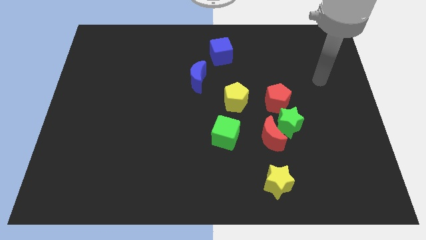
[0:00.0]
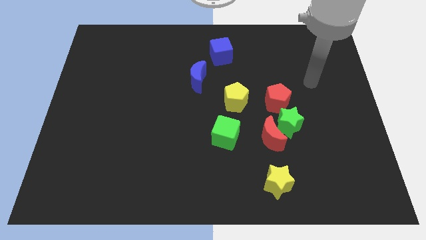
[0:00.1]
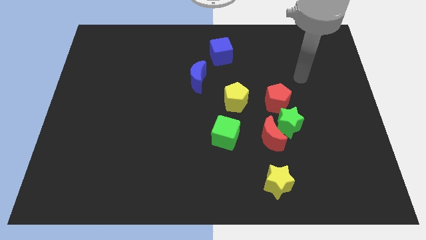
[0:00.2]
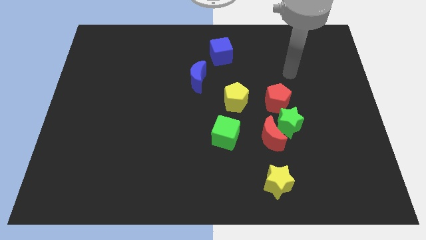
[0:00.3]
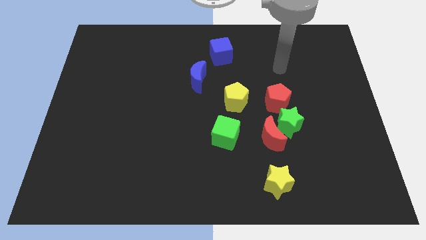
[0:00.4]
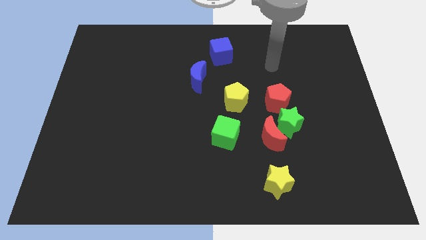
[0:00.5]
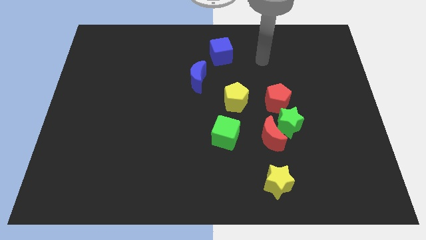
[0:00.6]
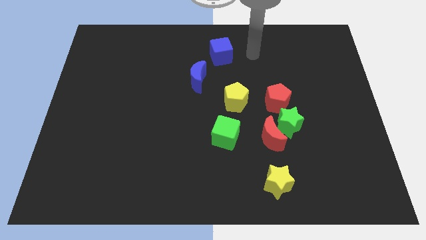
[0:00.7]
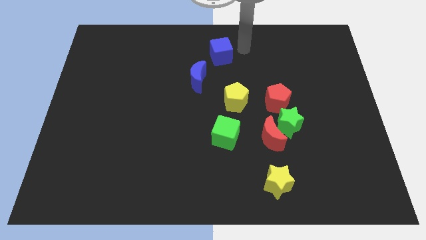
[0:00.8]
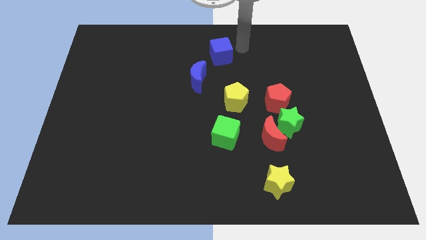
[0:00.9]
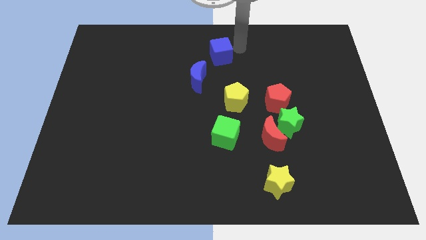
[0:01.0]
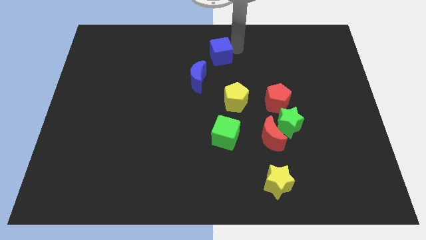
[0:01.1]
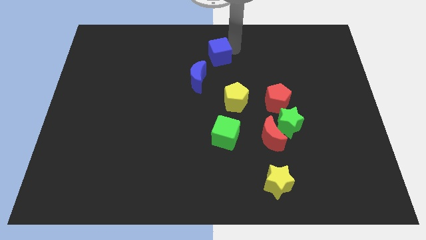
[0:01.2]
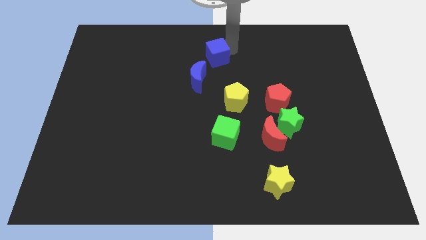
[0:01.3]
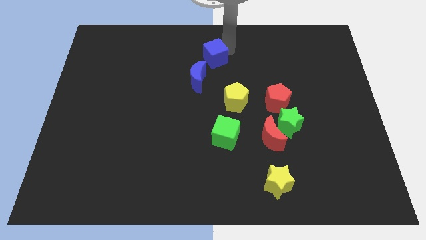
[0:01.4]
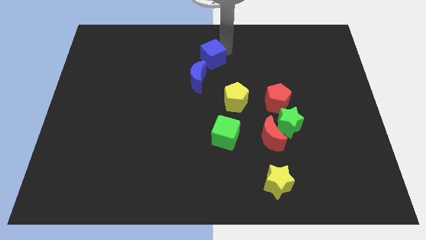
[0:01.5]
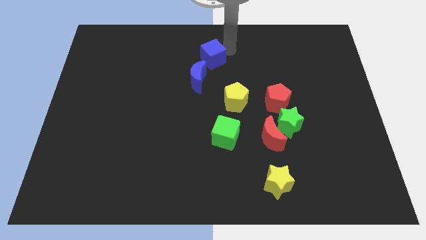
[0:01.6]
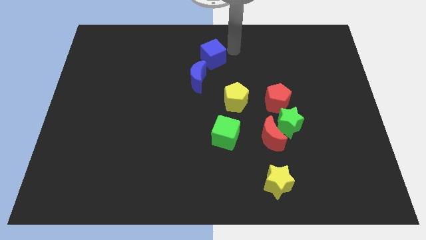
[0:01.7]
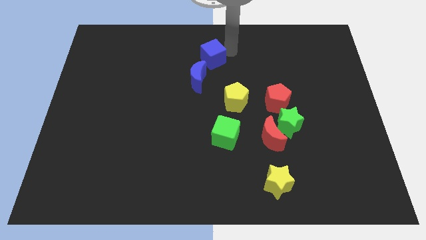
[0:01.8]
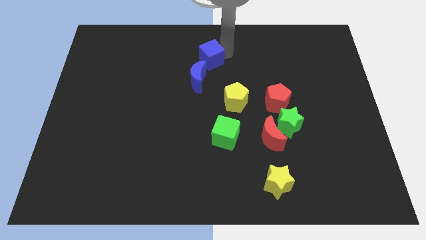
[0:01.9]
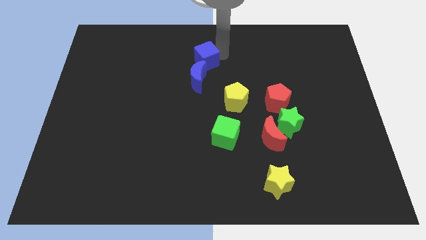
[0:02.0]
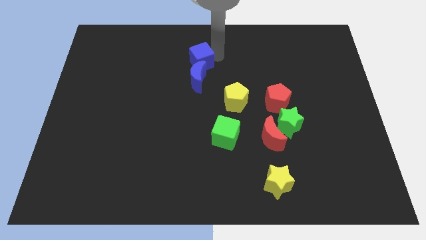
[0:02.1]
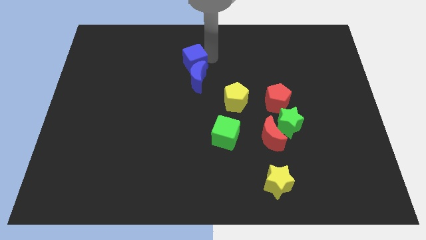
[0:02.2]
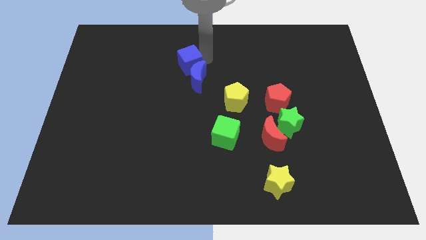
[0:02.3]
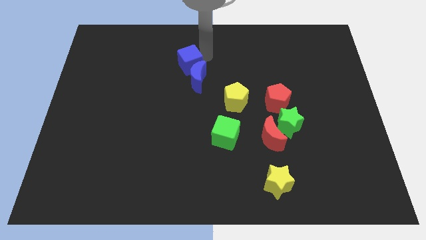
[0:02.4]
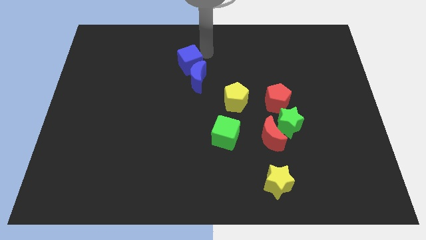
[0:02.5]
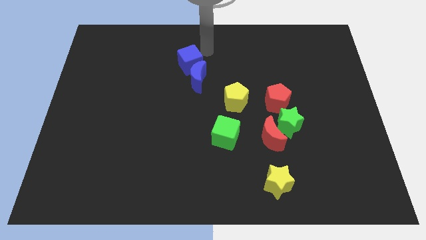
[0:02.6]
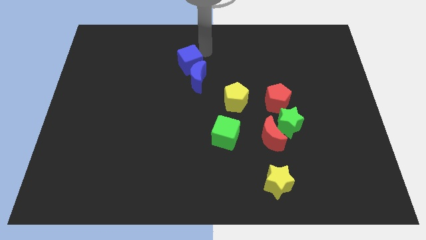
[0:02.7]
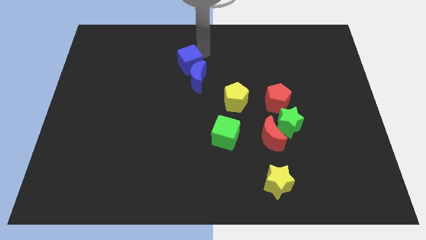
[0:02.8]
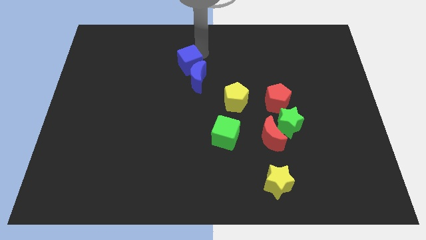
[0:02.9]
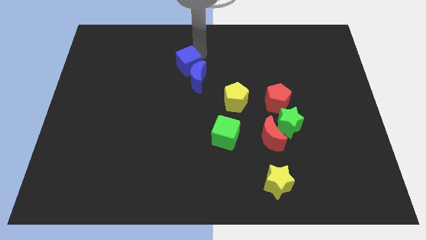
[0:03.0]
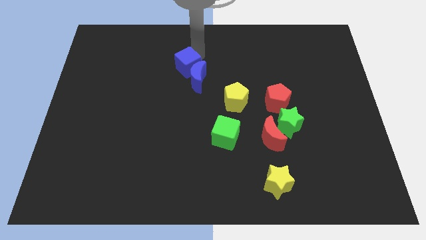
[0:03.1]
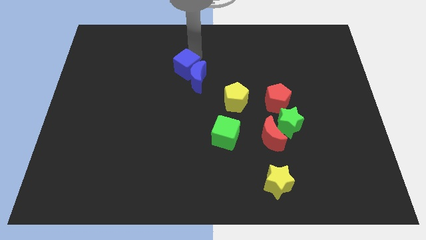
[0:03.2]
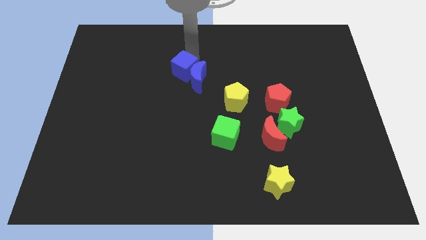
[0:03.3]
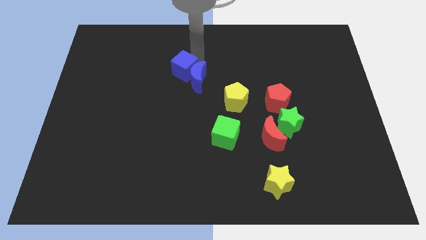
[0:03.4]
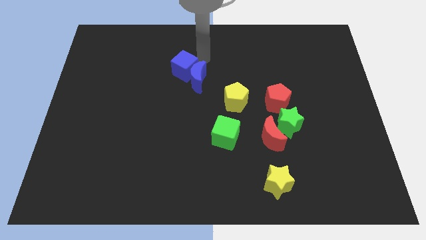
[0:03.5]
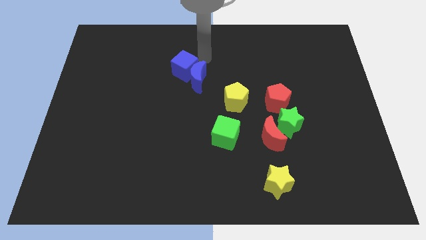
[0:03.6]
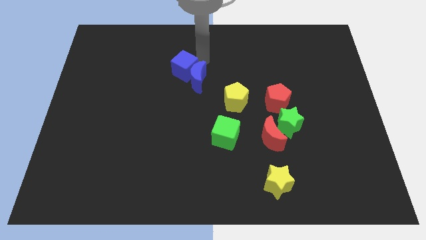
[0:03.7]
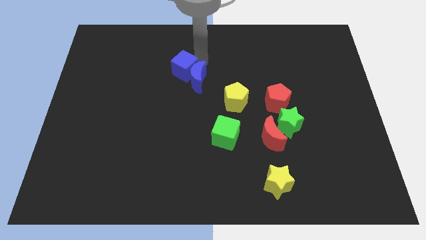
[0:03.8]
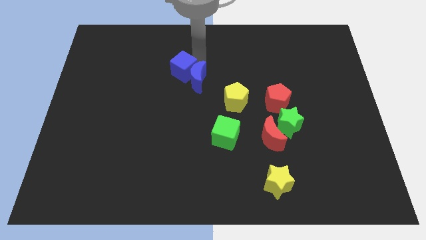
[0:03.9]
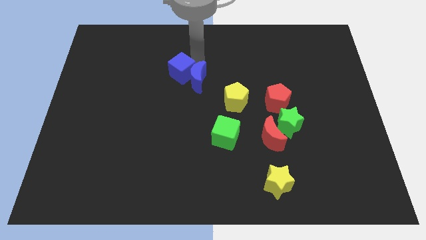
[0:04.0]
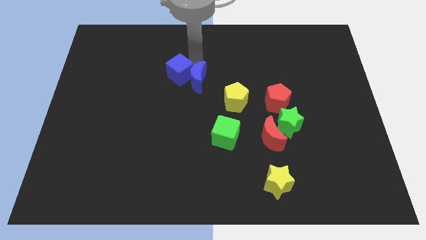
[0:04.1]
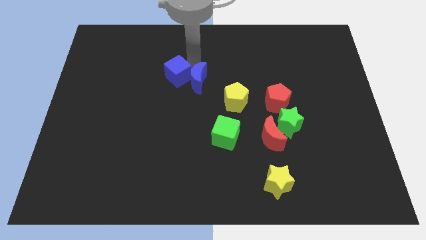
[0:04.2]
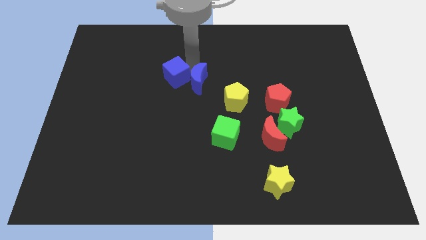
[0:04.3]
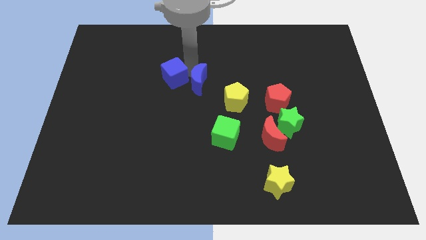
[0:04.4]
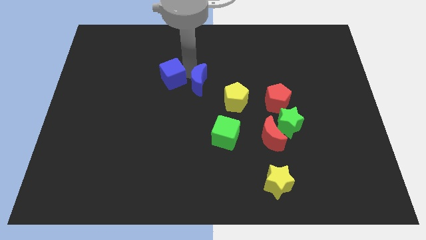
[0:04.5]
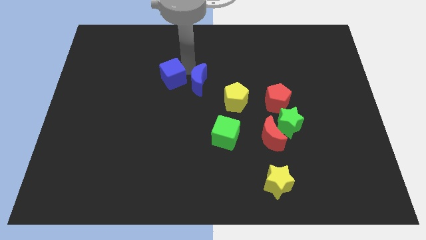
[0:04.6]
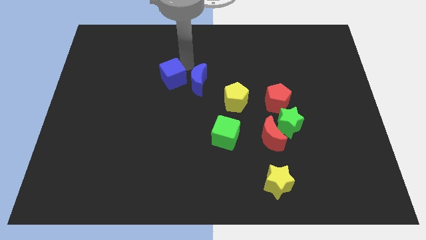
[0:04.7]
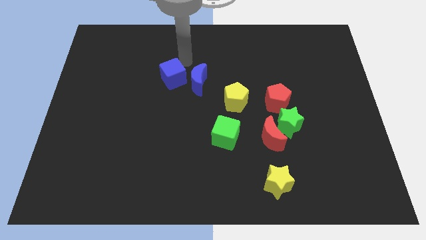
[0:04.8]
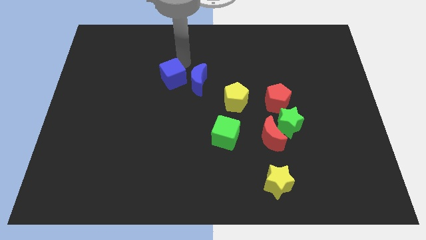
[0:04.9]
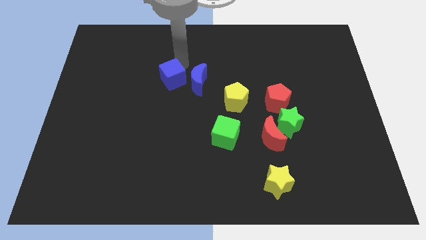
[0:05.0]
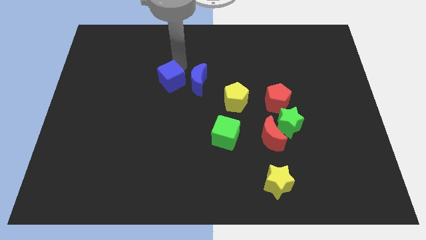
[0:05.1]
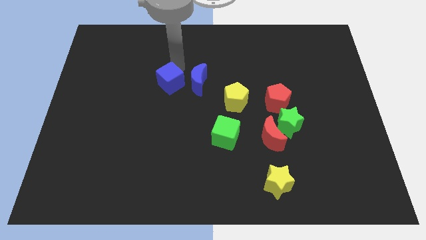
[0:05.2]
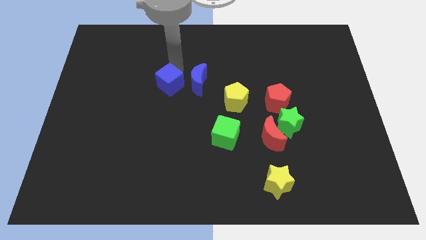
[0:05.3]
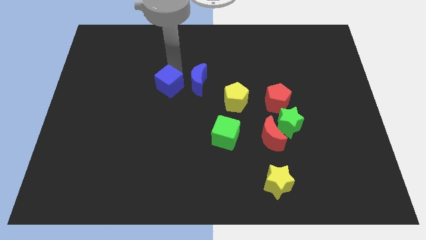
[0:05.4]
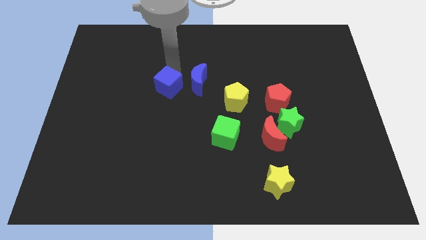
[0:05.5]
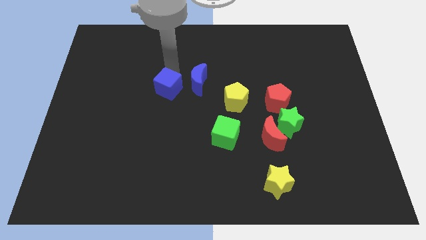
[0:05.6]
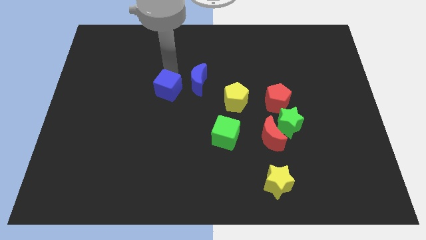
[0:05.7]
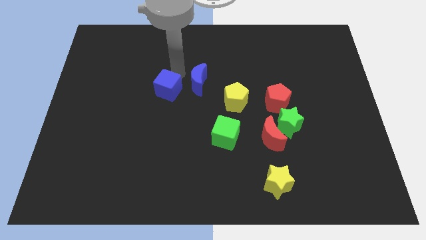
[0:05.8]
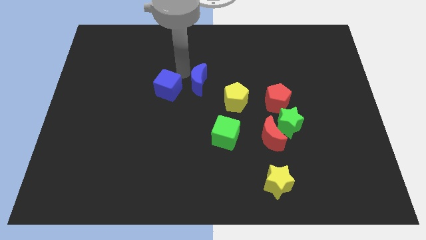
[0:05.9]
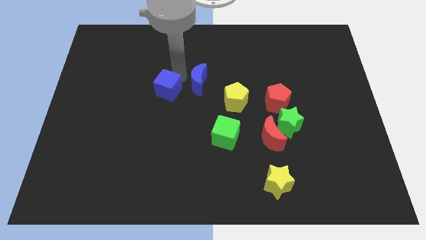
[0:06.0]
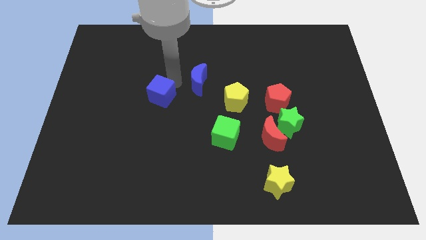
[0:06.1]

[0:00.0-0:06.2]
slide the blue cube down and to the left

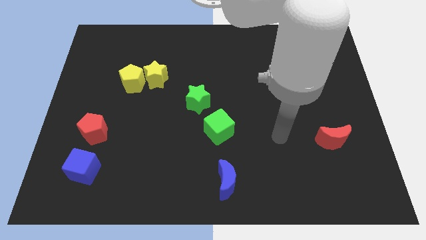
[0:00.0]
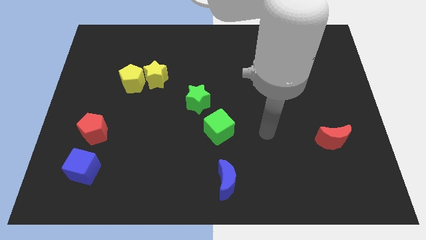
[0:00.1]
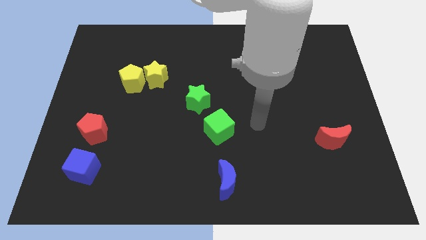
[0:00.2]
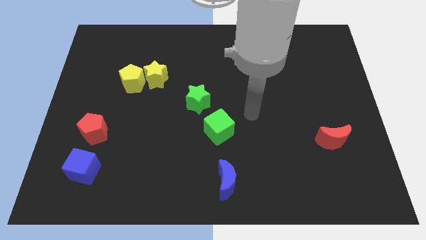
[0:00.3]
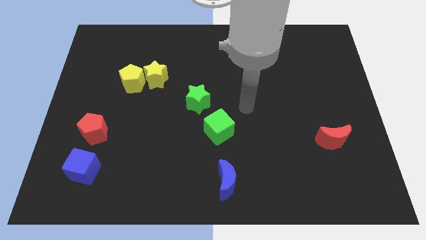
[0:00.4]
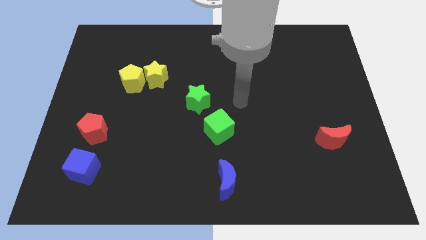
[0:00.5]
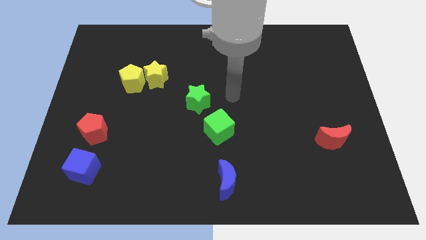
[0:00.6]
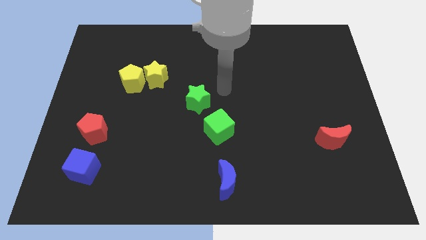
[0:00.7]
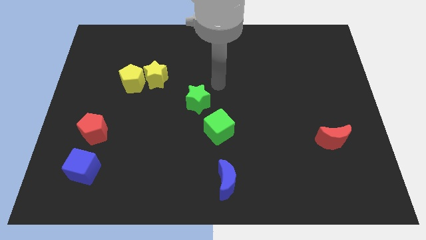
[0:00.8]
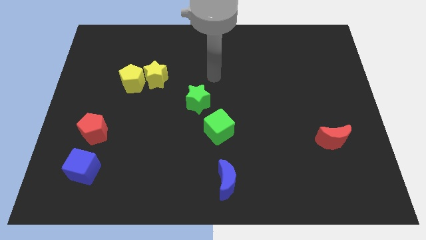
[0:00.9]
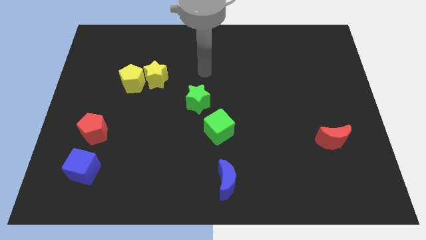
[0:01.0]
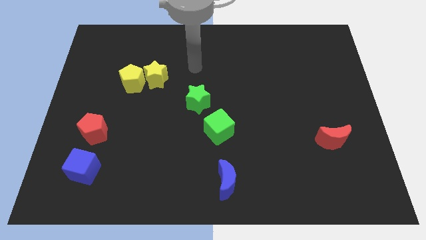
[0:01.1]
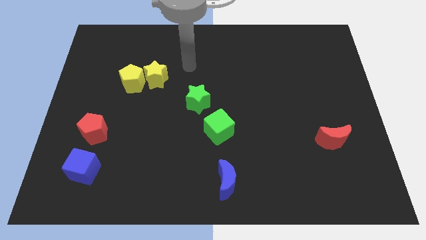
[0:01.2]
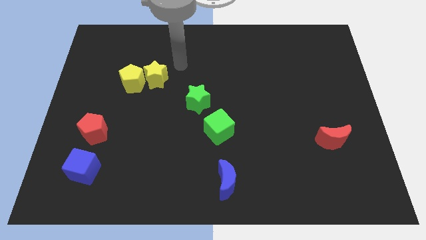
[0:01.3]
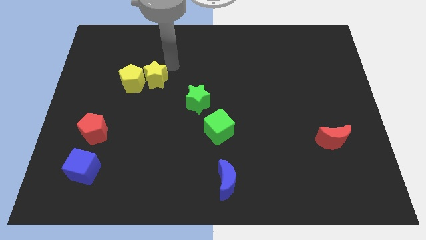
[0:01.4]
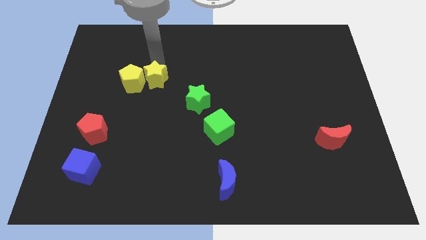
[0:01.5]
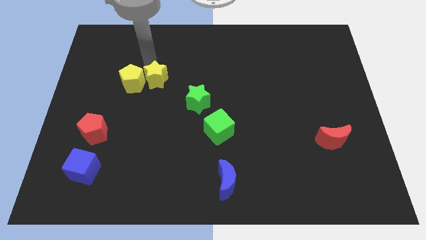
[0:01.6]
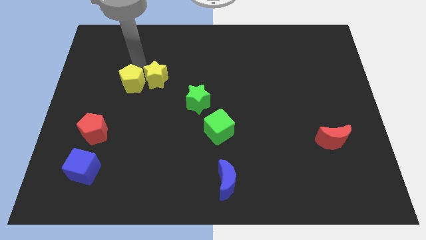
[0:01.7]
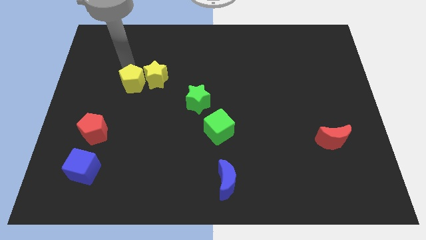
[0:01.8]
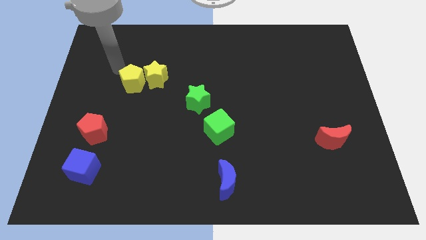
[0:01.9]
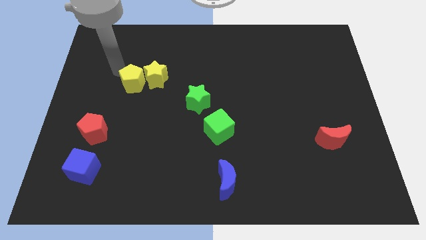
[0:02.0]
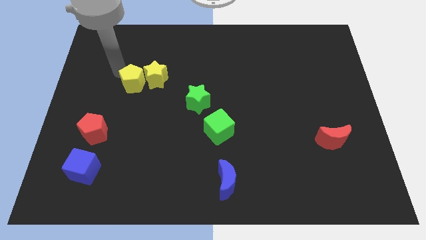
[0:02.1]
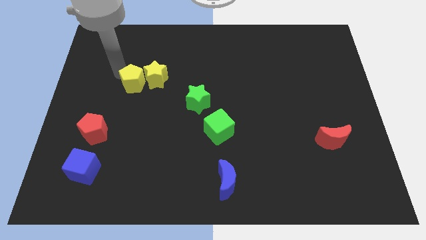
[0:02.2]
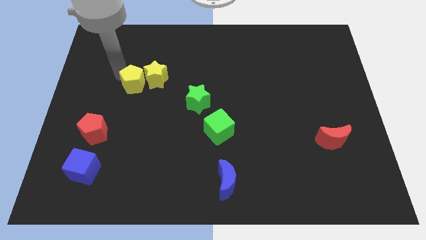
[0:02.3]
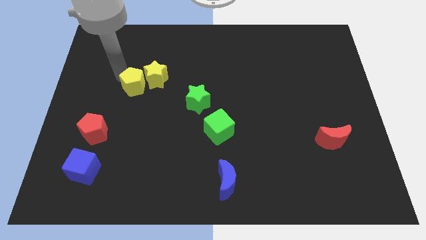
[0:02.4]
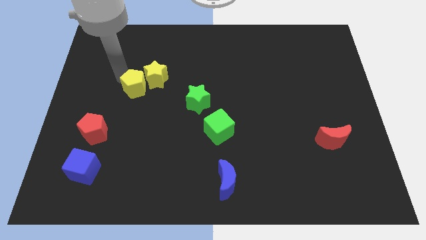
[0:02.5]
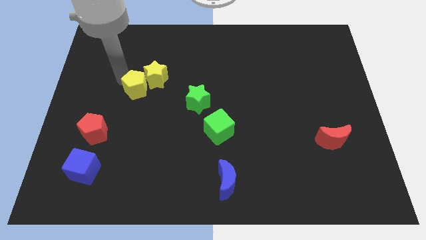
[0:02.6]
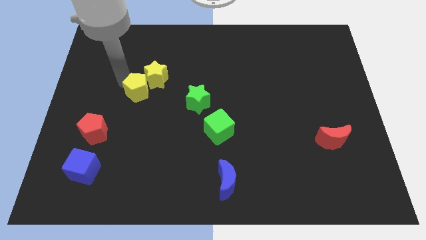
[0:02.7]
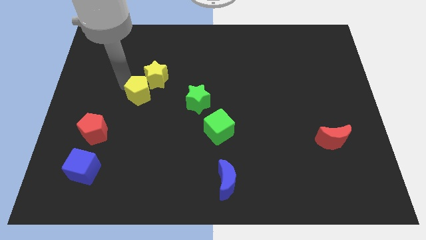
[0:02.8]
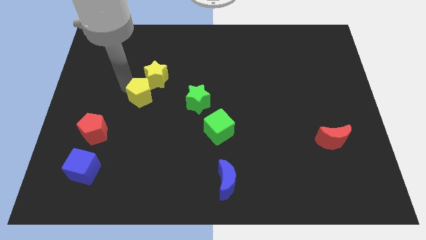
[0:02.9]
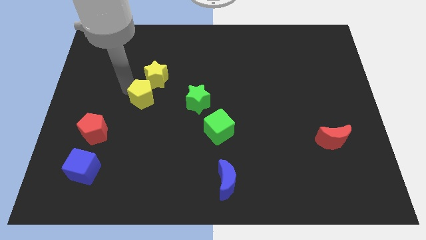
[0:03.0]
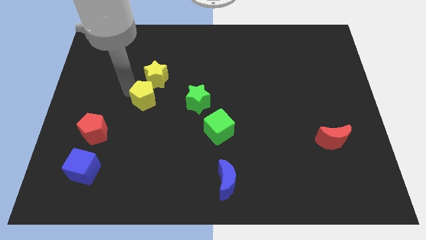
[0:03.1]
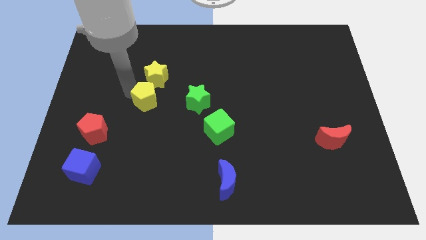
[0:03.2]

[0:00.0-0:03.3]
slightly slide the yellow pentagon downwards and right diagonally
